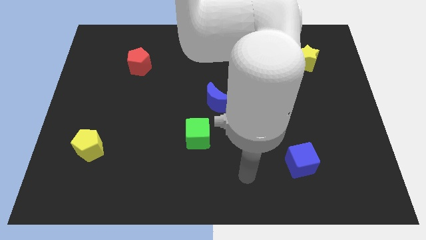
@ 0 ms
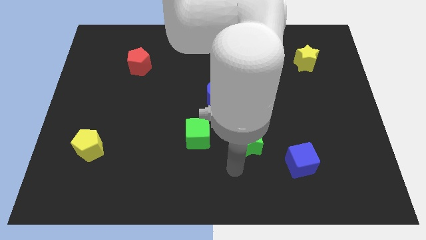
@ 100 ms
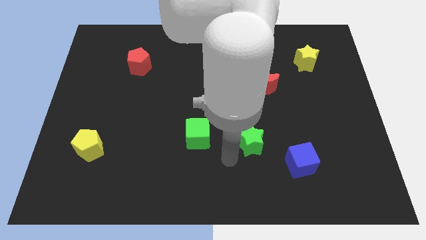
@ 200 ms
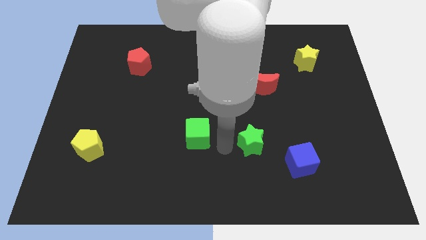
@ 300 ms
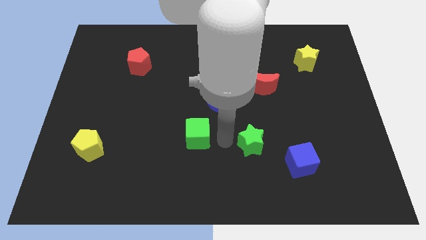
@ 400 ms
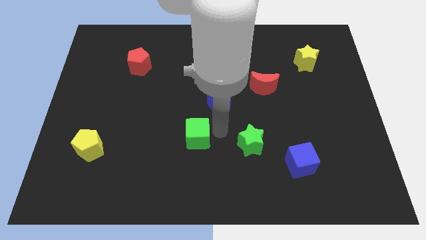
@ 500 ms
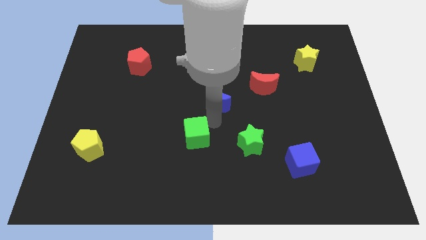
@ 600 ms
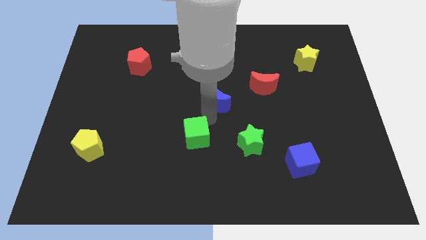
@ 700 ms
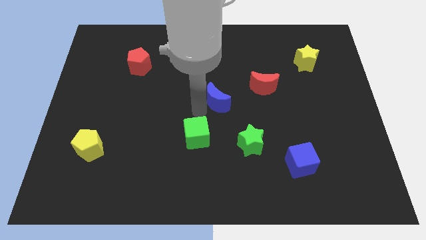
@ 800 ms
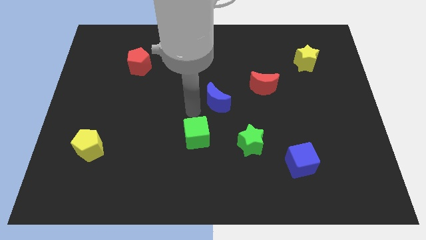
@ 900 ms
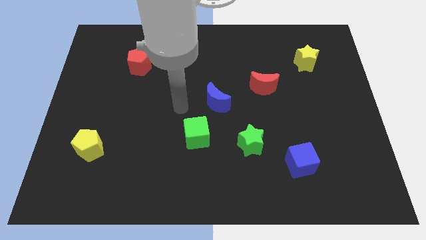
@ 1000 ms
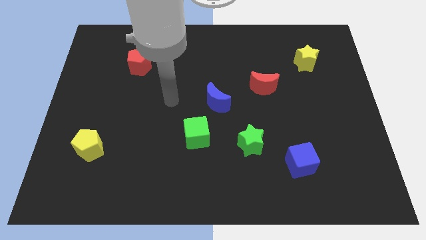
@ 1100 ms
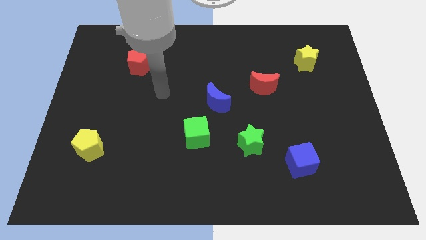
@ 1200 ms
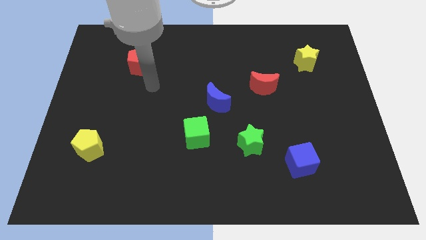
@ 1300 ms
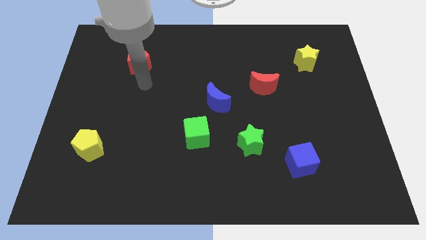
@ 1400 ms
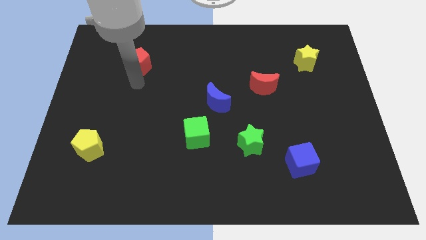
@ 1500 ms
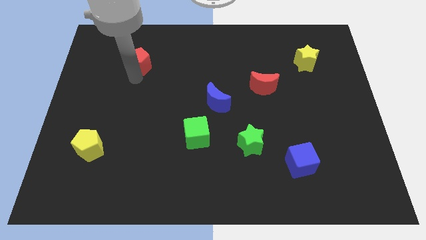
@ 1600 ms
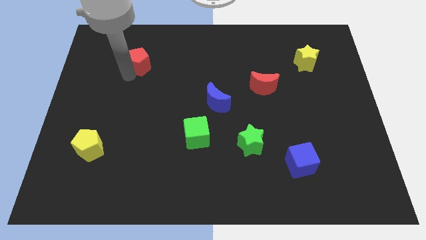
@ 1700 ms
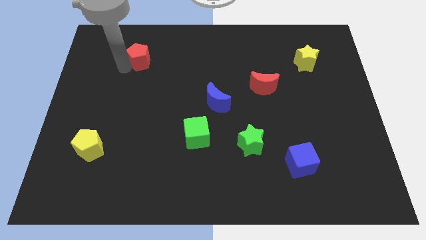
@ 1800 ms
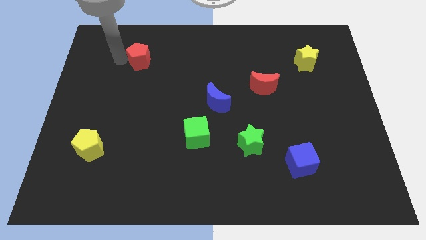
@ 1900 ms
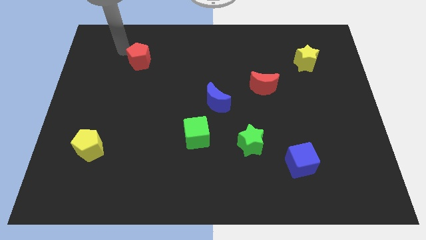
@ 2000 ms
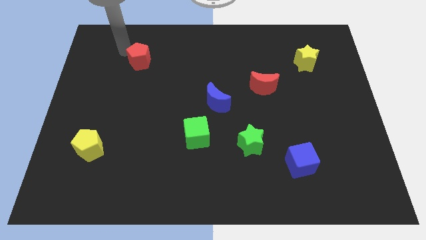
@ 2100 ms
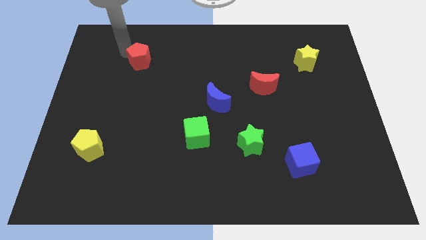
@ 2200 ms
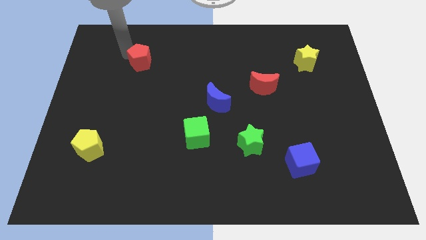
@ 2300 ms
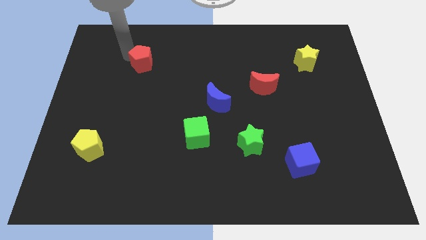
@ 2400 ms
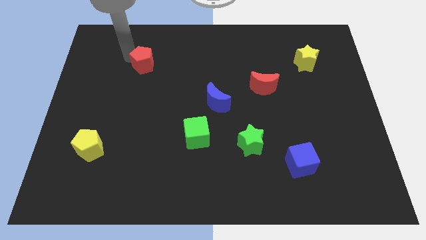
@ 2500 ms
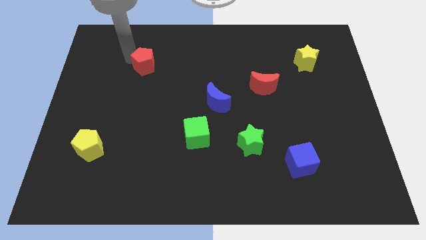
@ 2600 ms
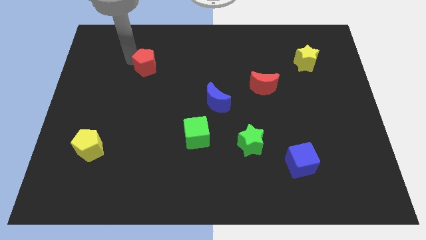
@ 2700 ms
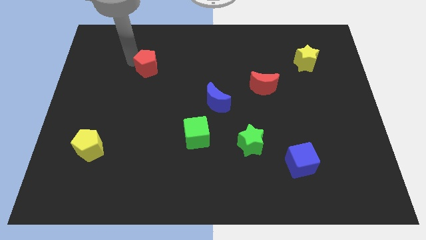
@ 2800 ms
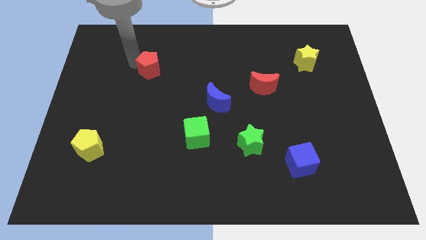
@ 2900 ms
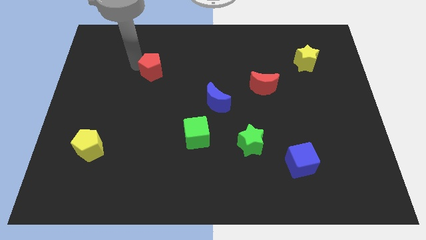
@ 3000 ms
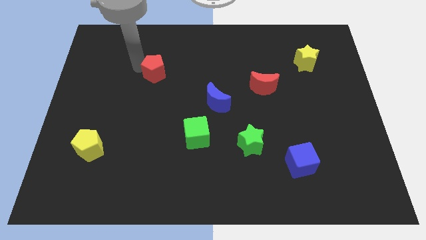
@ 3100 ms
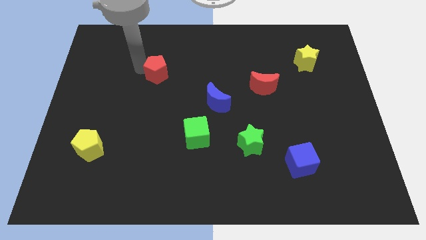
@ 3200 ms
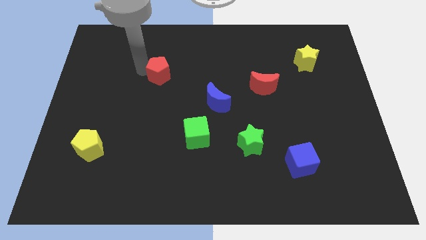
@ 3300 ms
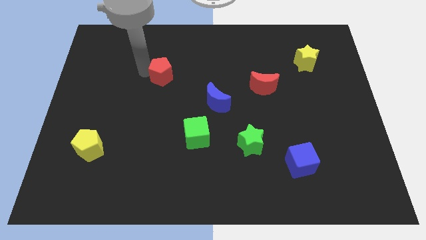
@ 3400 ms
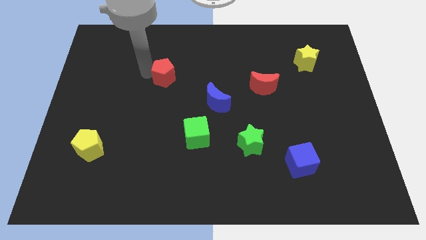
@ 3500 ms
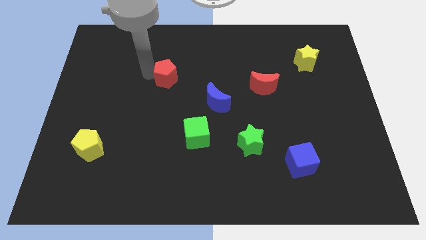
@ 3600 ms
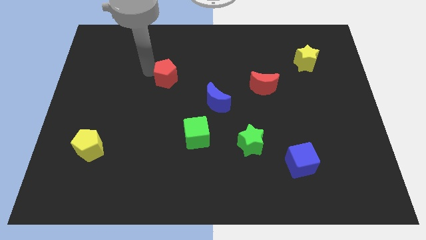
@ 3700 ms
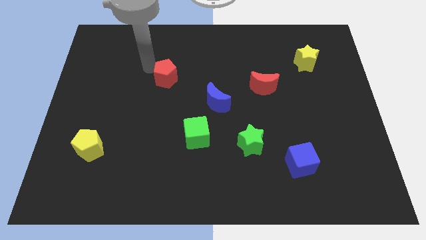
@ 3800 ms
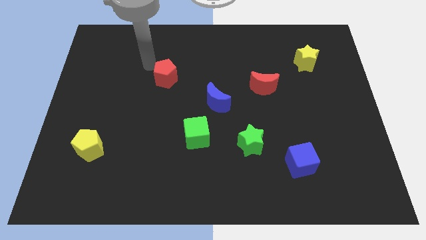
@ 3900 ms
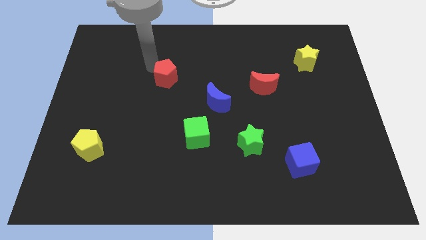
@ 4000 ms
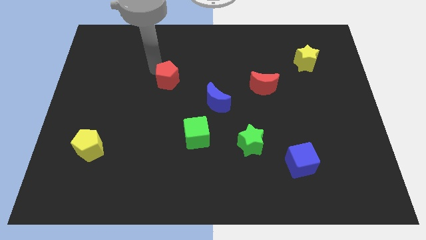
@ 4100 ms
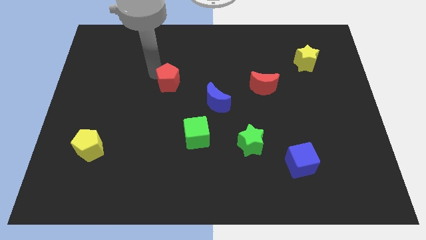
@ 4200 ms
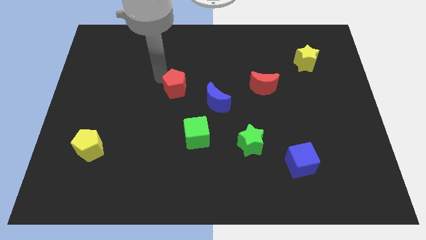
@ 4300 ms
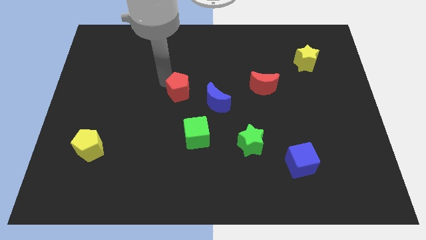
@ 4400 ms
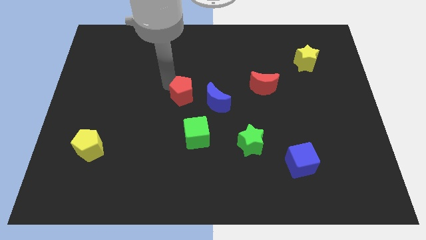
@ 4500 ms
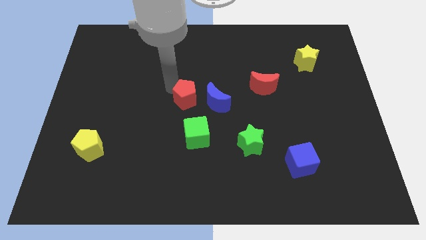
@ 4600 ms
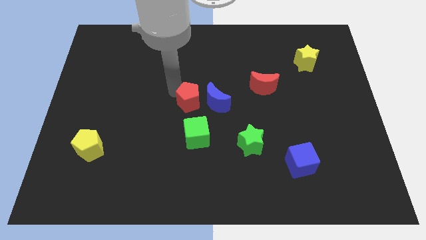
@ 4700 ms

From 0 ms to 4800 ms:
put the red pentagon to the blue moon

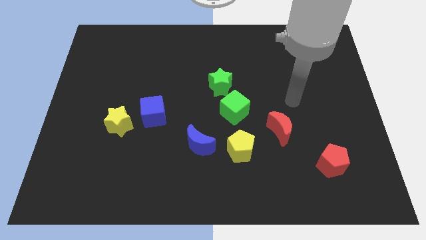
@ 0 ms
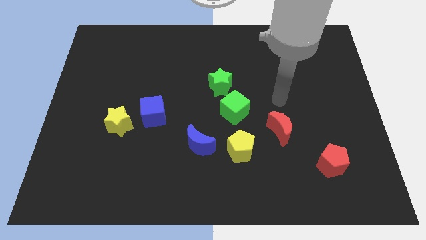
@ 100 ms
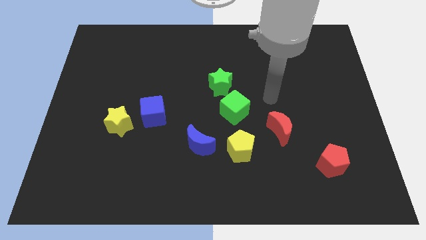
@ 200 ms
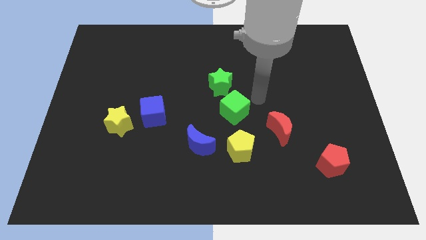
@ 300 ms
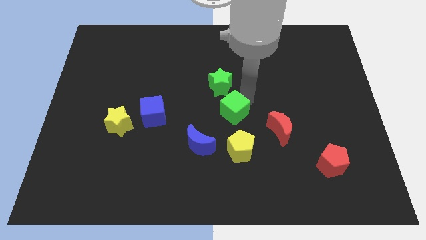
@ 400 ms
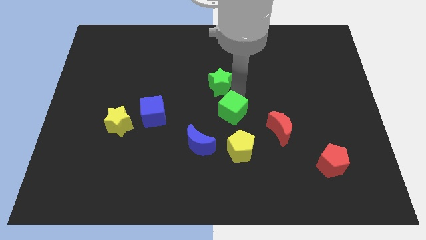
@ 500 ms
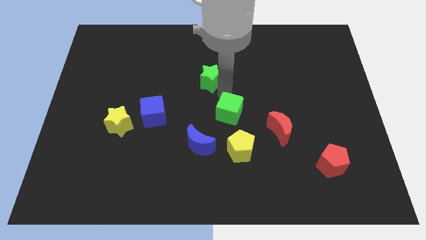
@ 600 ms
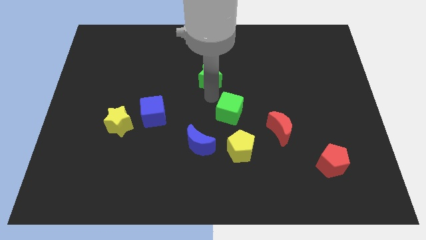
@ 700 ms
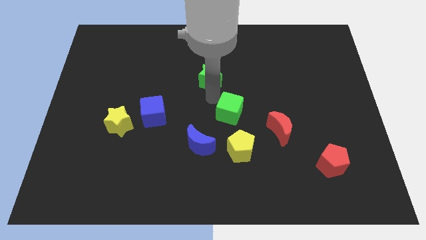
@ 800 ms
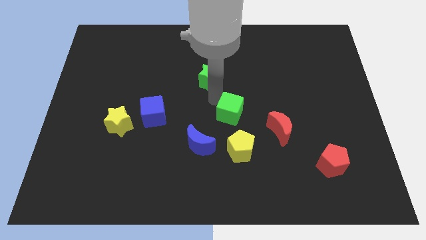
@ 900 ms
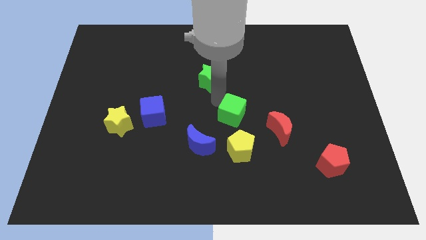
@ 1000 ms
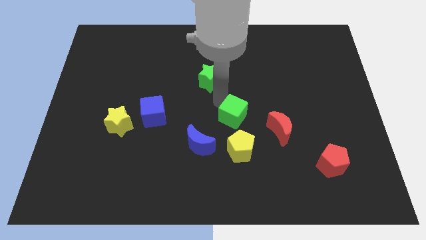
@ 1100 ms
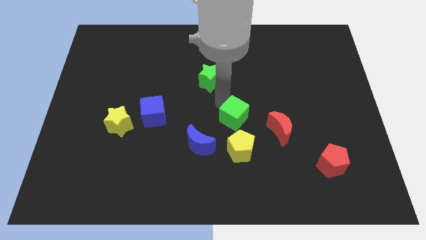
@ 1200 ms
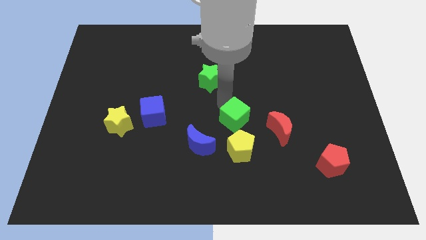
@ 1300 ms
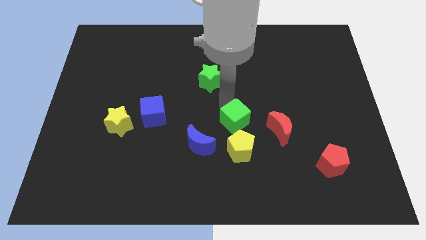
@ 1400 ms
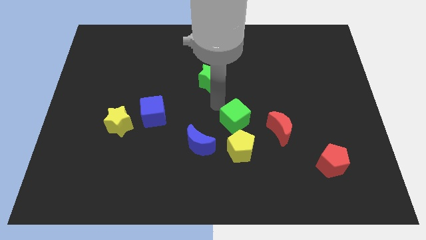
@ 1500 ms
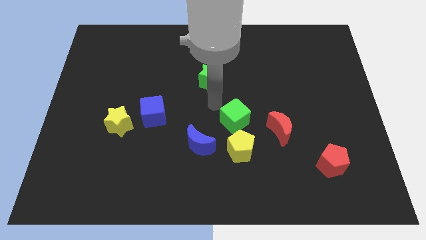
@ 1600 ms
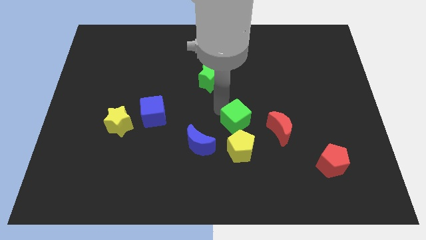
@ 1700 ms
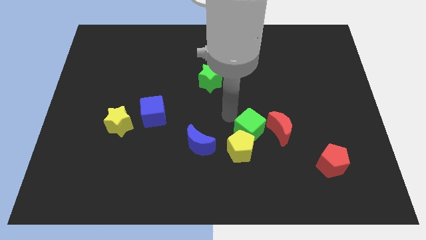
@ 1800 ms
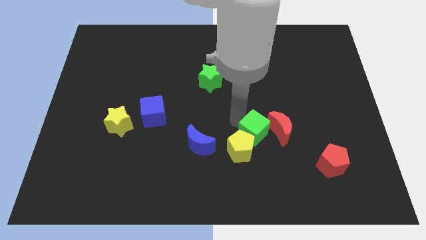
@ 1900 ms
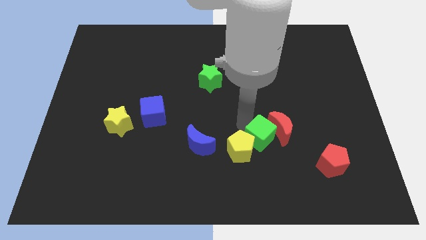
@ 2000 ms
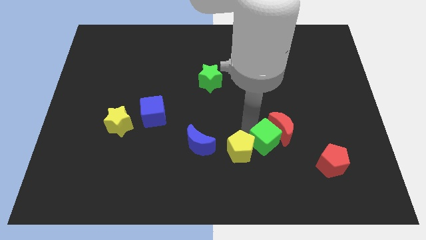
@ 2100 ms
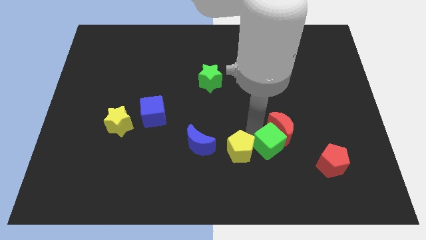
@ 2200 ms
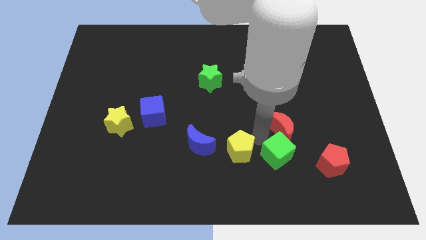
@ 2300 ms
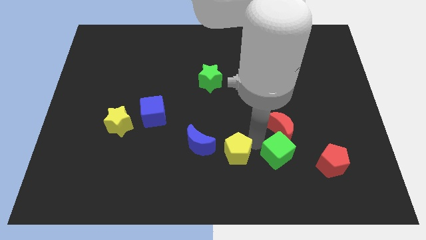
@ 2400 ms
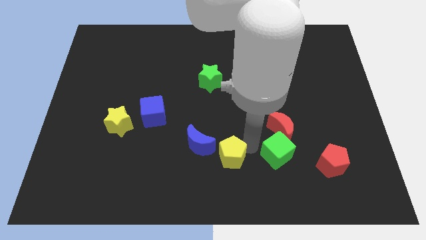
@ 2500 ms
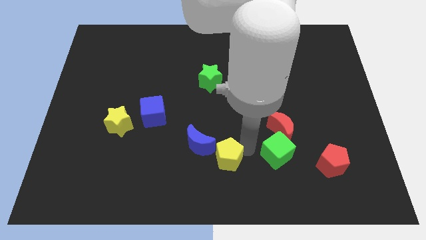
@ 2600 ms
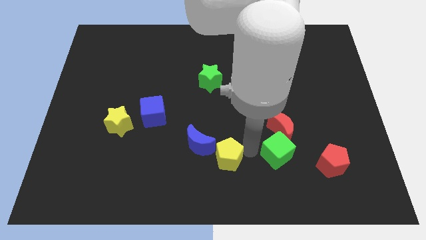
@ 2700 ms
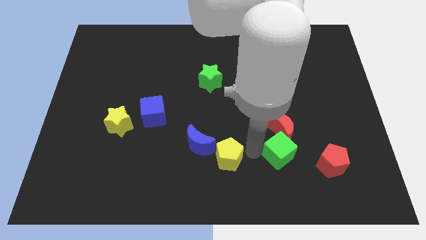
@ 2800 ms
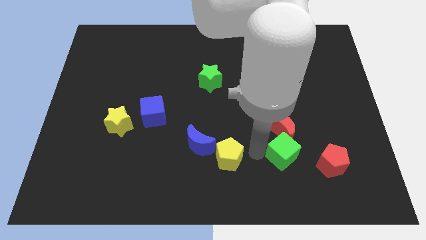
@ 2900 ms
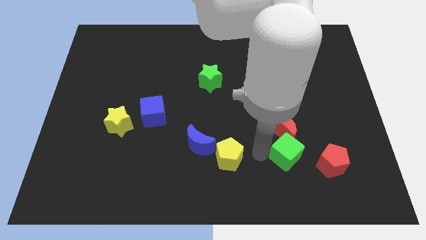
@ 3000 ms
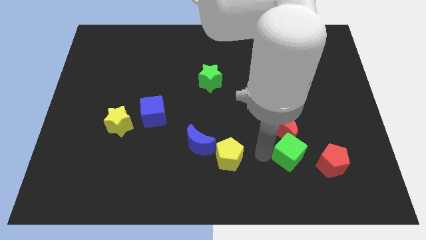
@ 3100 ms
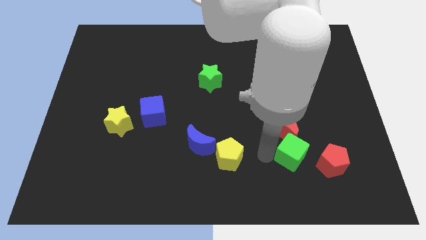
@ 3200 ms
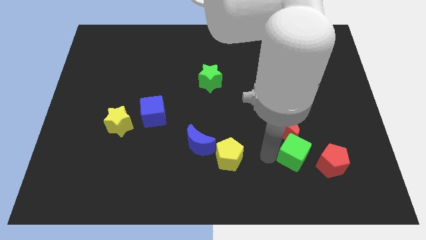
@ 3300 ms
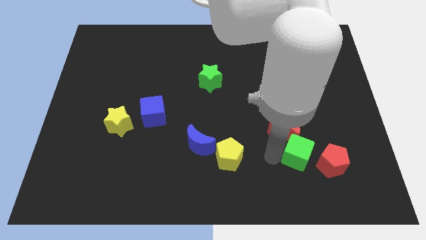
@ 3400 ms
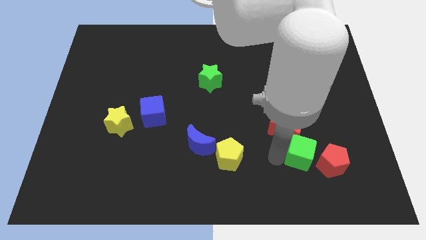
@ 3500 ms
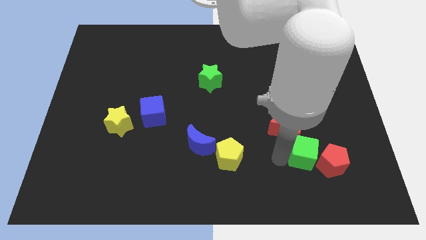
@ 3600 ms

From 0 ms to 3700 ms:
put the green cube towards the red pentagon
